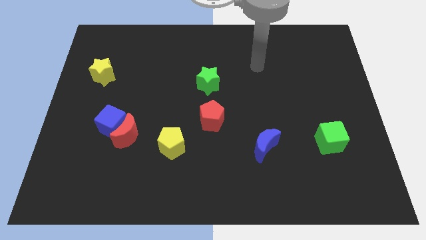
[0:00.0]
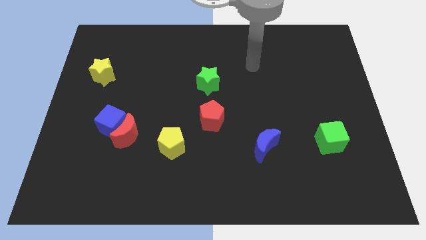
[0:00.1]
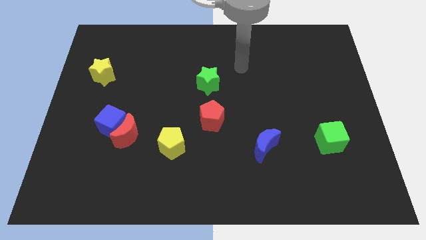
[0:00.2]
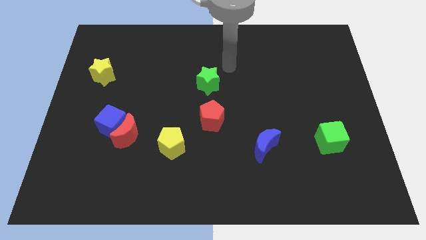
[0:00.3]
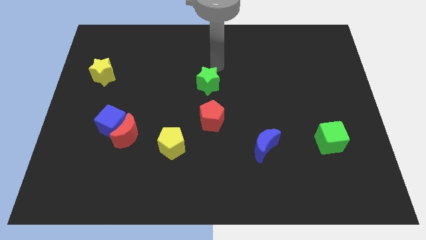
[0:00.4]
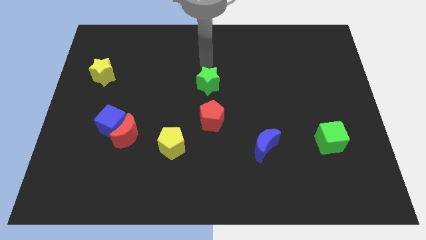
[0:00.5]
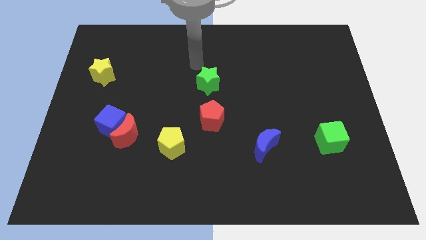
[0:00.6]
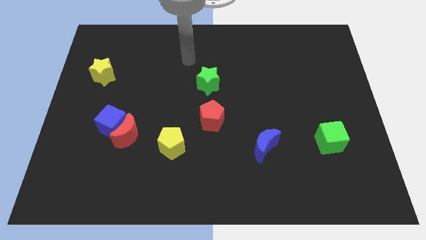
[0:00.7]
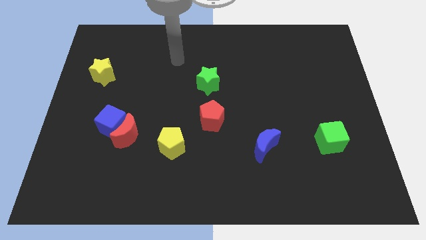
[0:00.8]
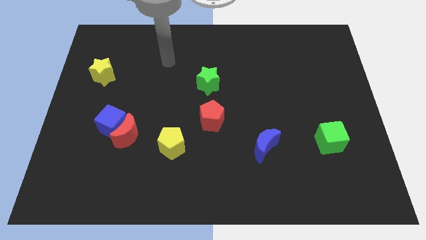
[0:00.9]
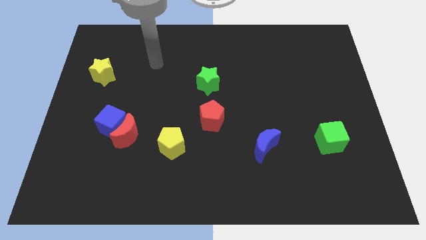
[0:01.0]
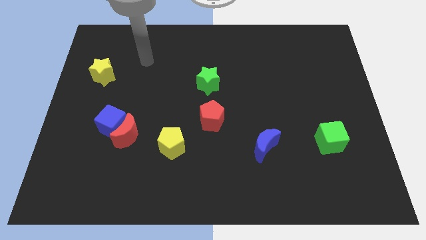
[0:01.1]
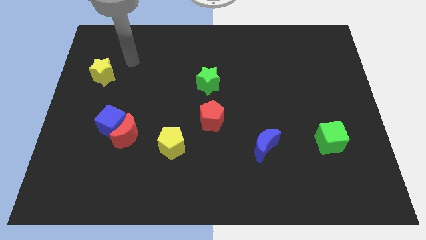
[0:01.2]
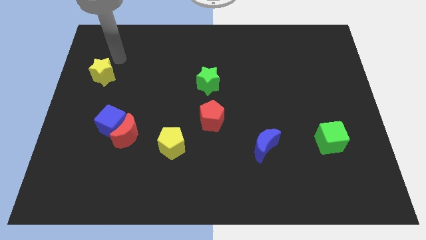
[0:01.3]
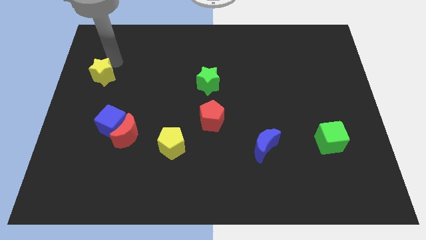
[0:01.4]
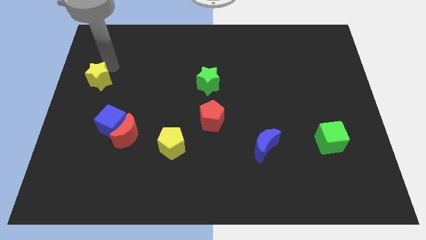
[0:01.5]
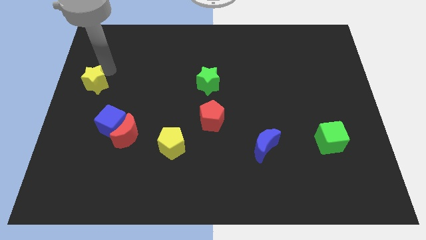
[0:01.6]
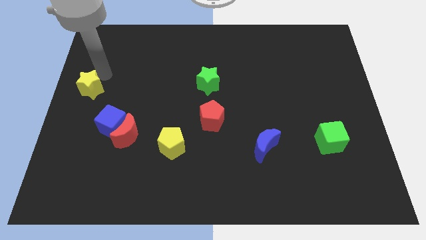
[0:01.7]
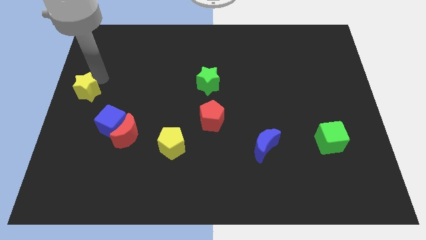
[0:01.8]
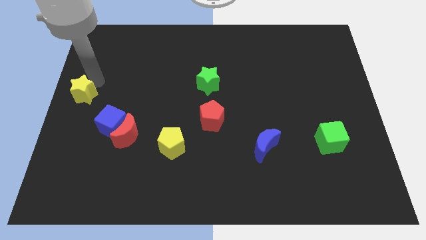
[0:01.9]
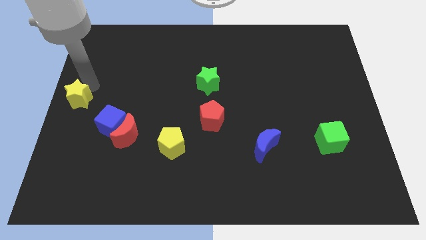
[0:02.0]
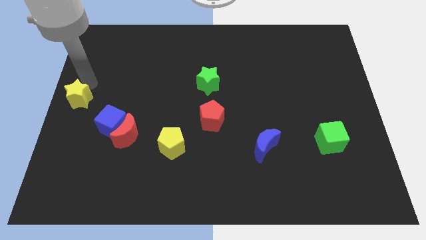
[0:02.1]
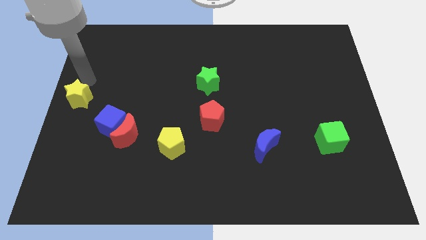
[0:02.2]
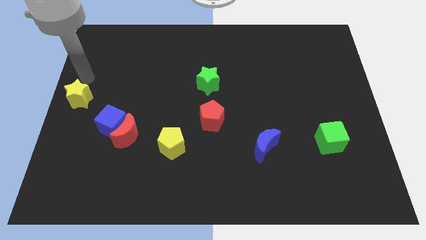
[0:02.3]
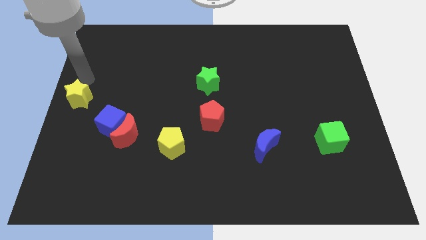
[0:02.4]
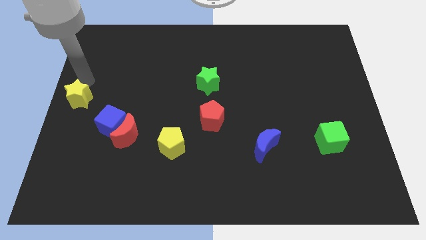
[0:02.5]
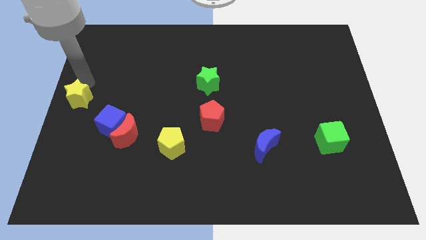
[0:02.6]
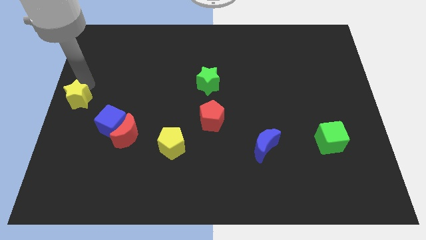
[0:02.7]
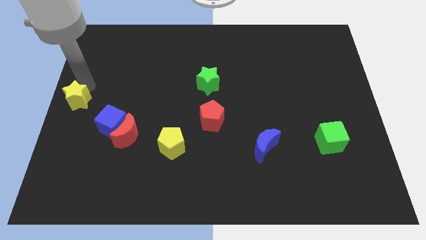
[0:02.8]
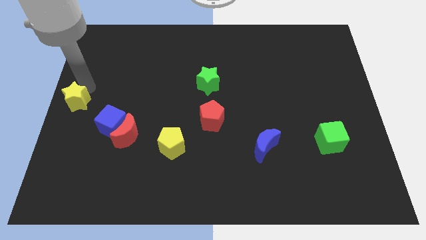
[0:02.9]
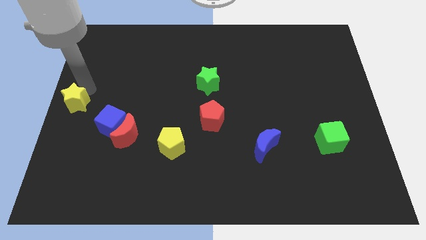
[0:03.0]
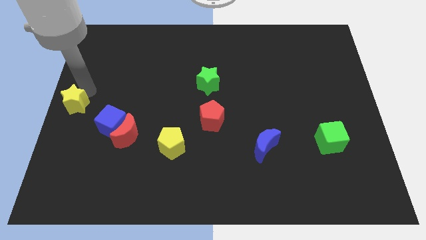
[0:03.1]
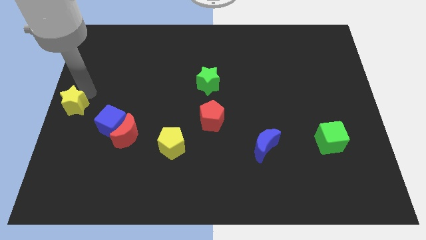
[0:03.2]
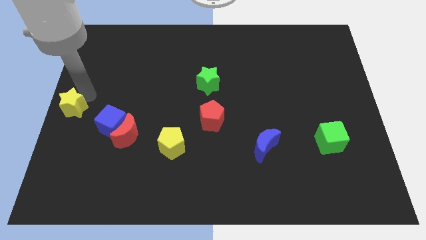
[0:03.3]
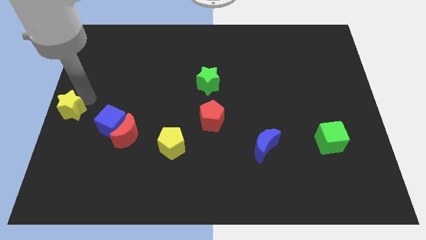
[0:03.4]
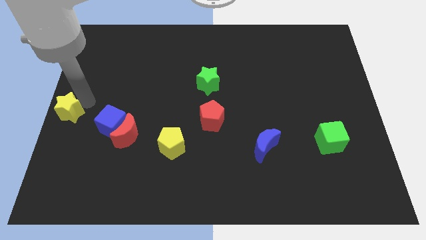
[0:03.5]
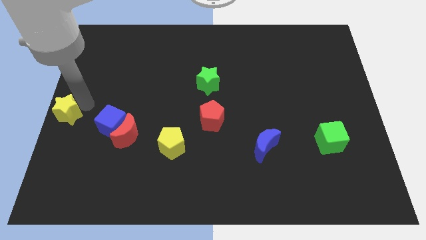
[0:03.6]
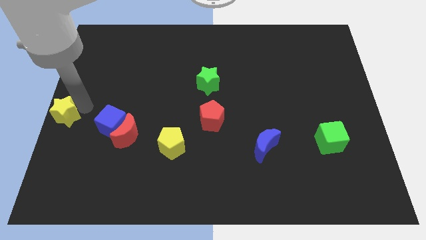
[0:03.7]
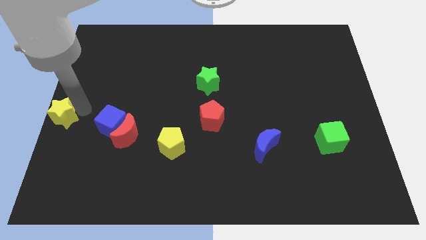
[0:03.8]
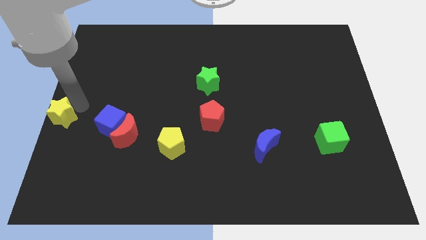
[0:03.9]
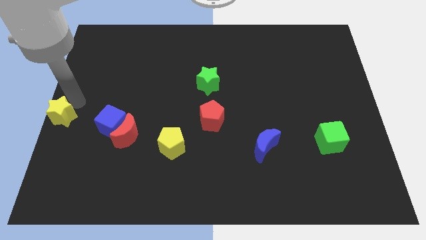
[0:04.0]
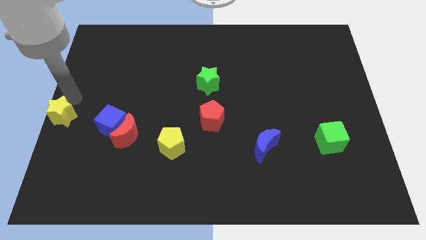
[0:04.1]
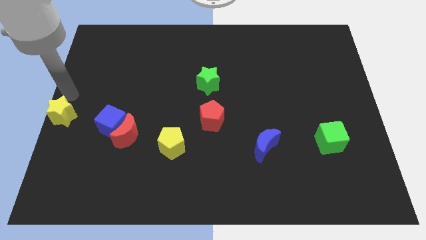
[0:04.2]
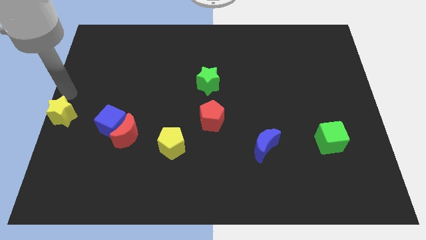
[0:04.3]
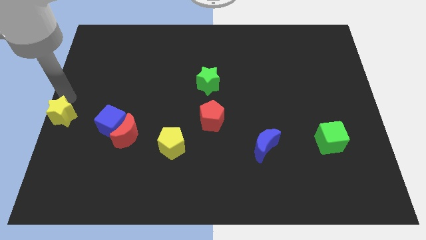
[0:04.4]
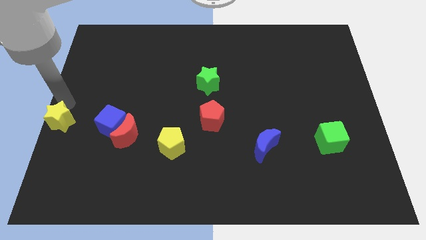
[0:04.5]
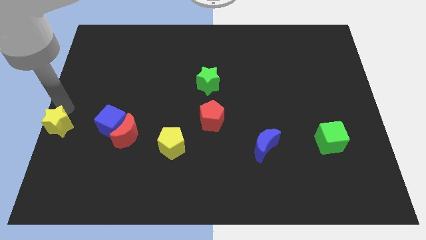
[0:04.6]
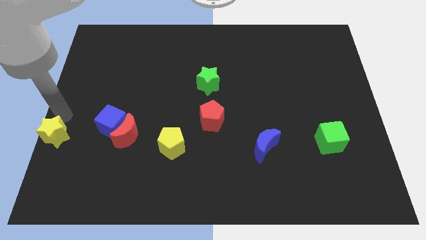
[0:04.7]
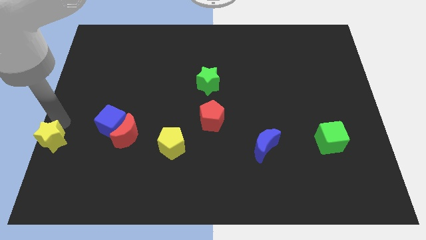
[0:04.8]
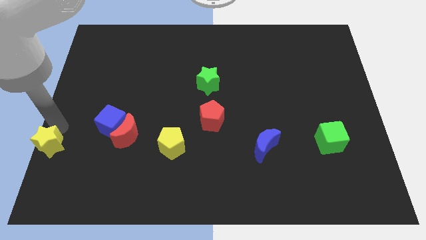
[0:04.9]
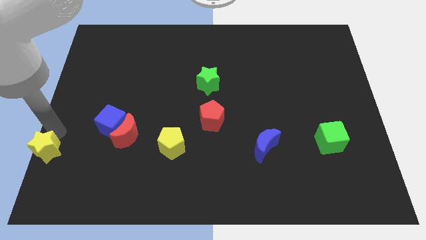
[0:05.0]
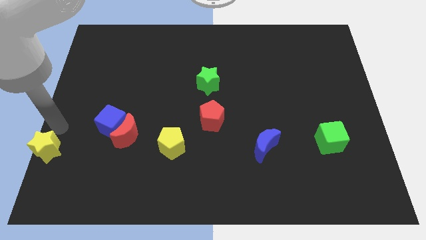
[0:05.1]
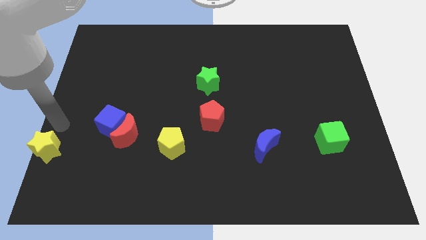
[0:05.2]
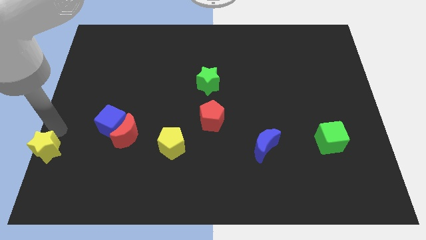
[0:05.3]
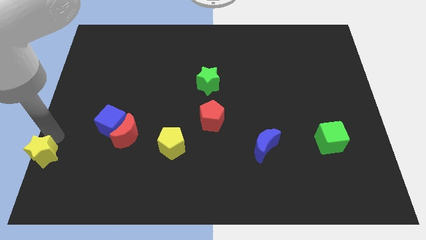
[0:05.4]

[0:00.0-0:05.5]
slide the yellow star to the lower left corner

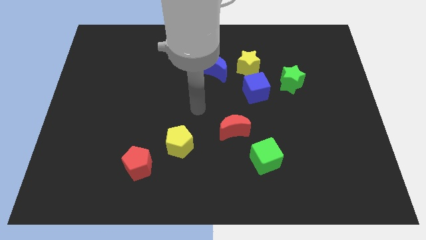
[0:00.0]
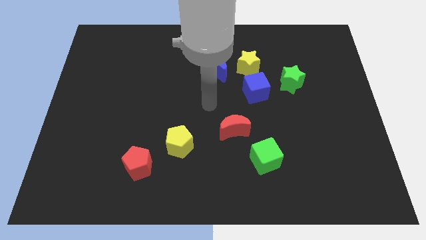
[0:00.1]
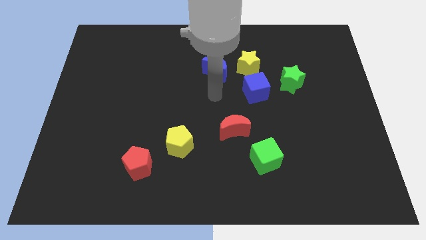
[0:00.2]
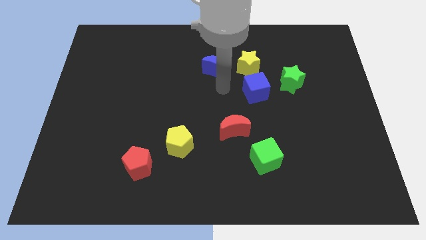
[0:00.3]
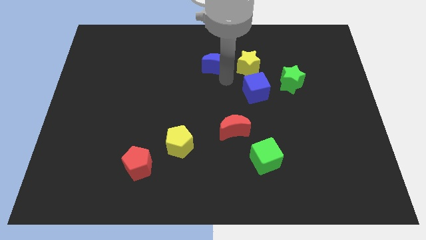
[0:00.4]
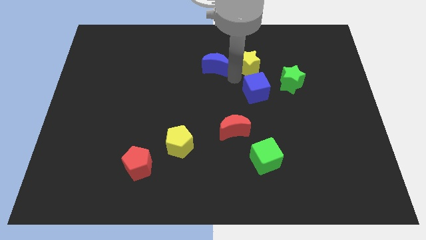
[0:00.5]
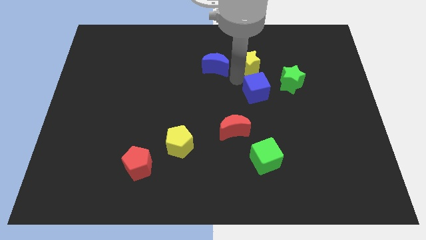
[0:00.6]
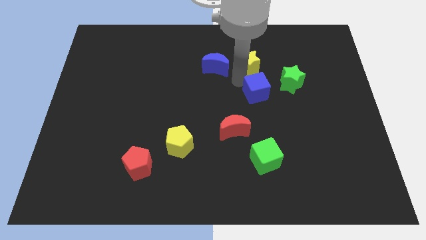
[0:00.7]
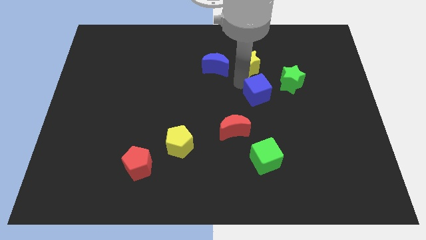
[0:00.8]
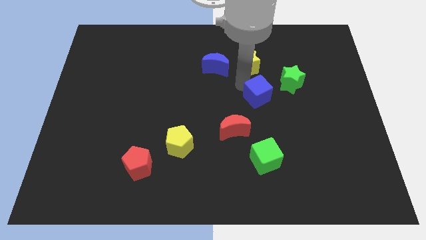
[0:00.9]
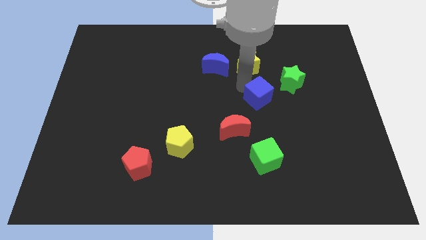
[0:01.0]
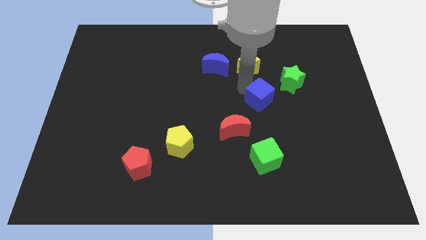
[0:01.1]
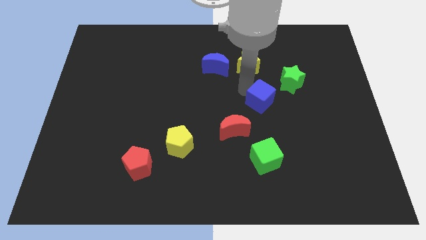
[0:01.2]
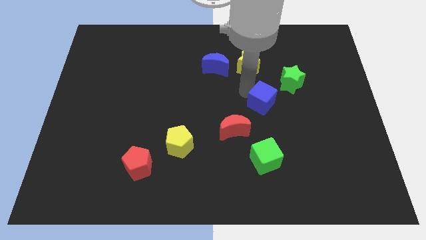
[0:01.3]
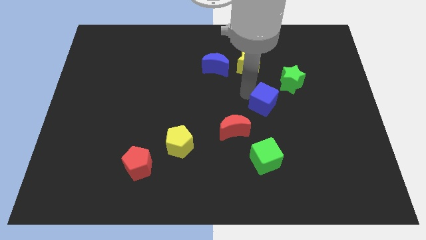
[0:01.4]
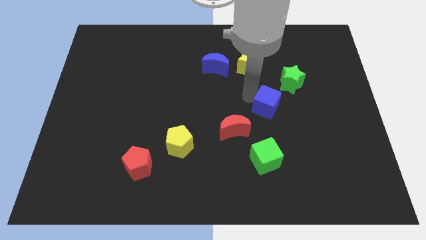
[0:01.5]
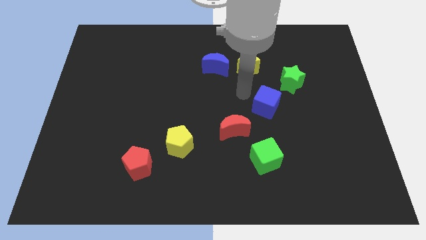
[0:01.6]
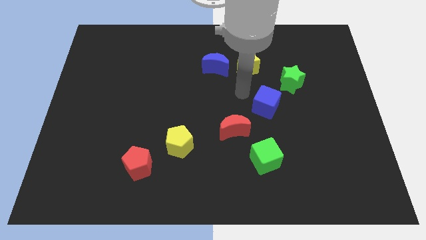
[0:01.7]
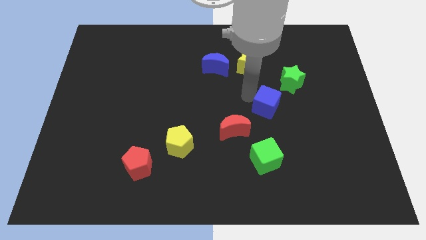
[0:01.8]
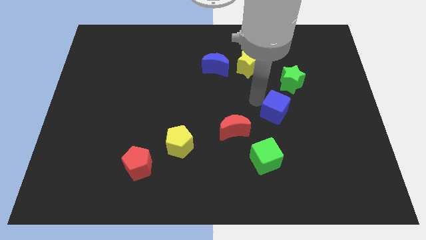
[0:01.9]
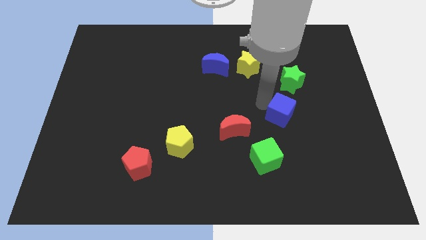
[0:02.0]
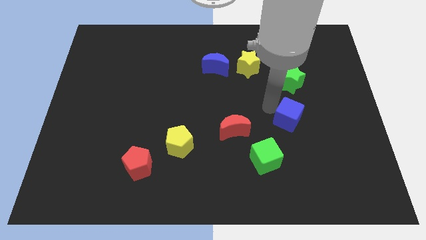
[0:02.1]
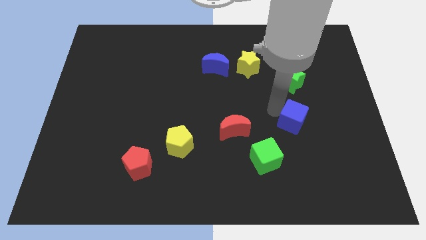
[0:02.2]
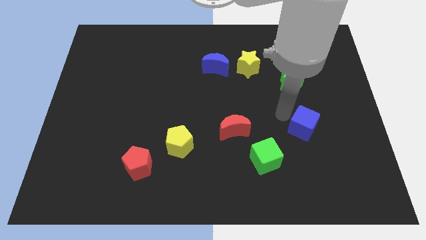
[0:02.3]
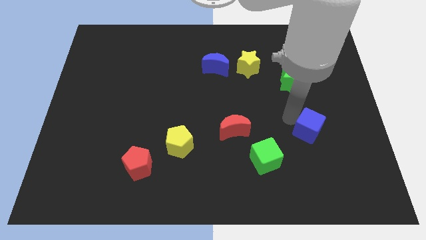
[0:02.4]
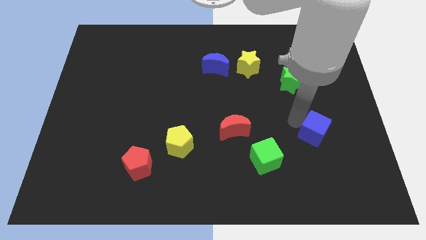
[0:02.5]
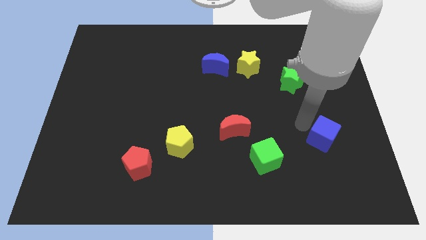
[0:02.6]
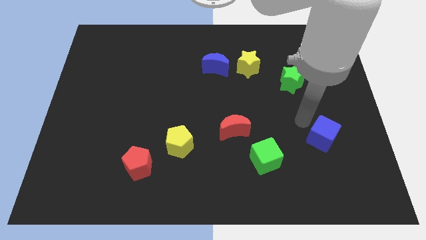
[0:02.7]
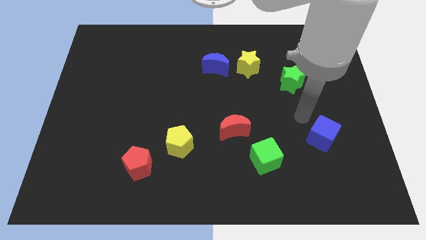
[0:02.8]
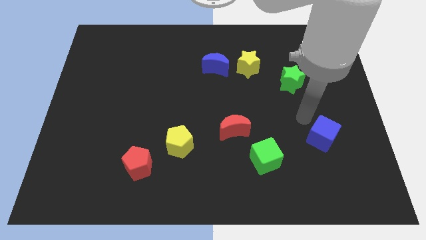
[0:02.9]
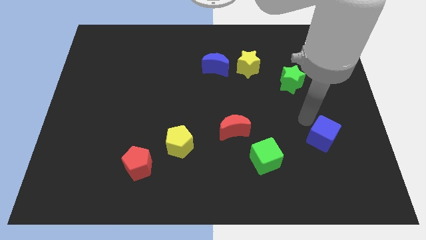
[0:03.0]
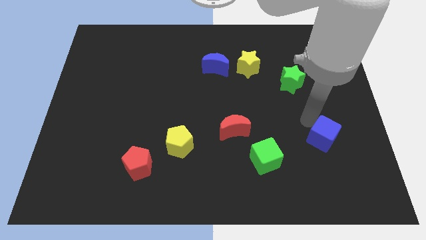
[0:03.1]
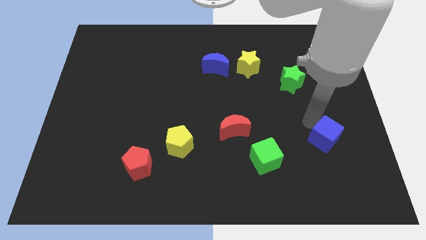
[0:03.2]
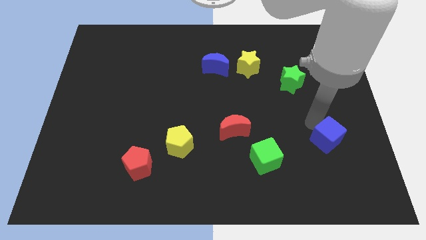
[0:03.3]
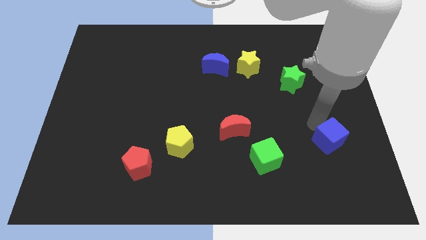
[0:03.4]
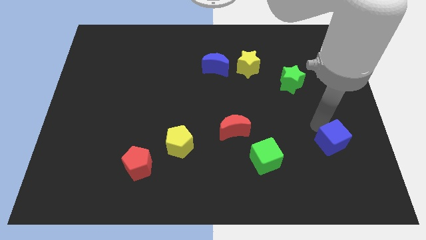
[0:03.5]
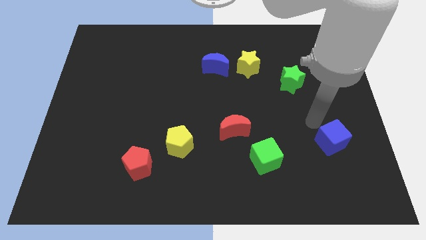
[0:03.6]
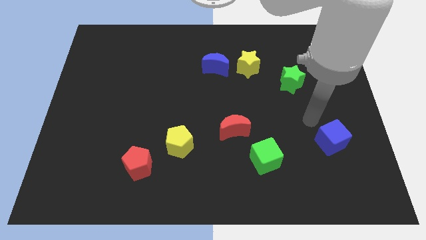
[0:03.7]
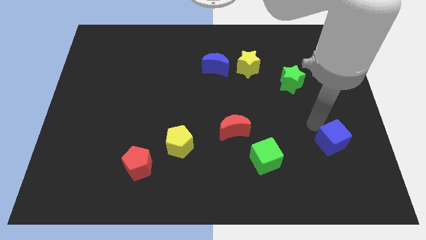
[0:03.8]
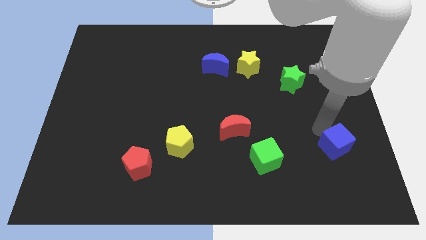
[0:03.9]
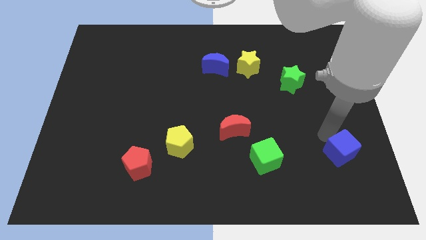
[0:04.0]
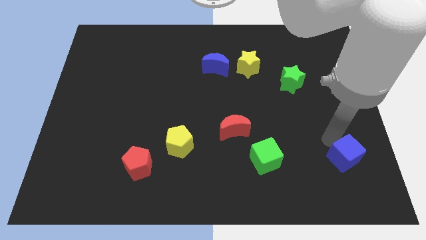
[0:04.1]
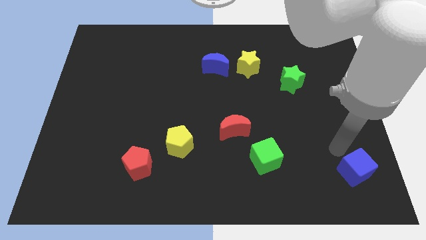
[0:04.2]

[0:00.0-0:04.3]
push the blue cube to the lower right corner
